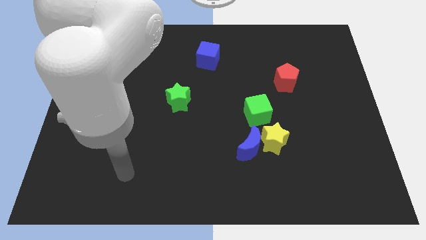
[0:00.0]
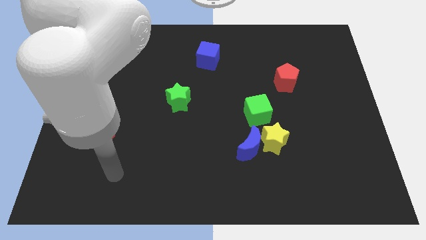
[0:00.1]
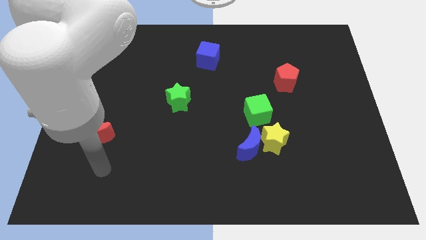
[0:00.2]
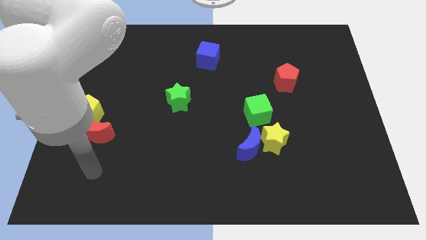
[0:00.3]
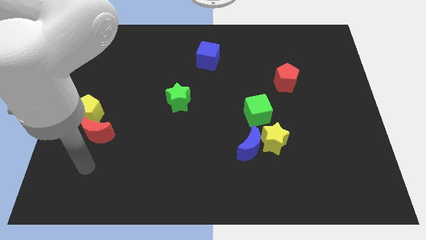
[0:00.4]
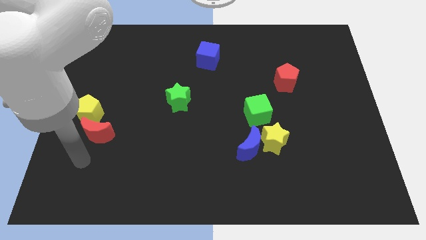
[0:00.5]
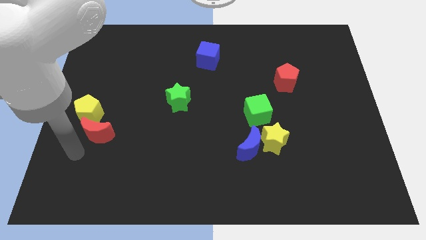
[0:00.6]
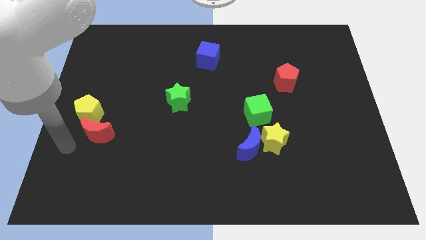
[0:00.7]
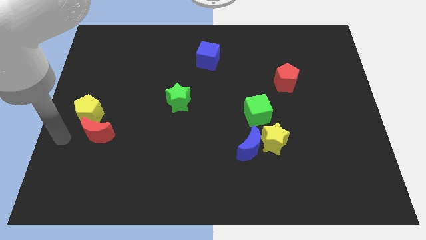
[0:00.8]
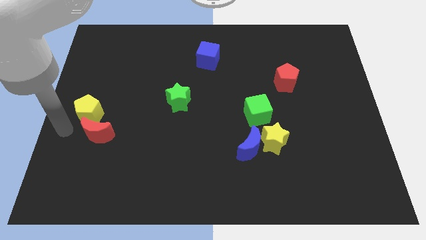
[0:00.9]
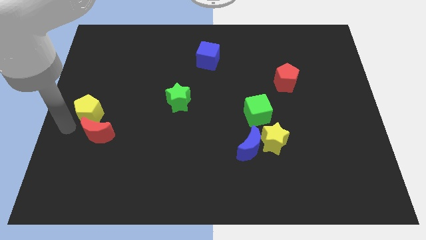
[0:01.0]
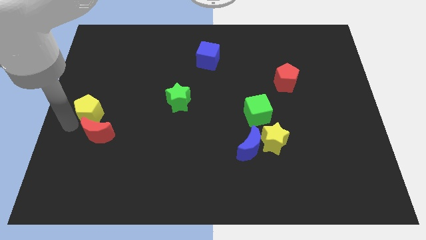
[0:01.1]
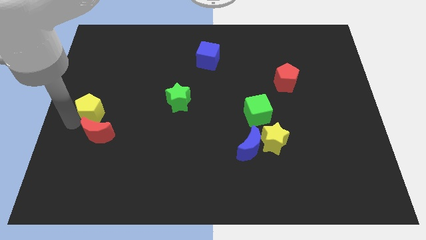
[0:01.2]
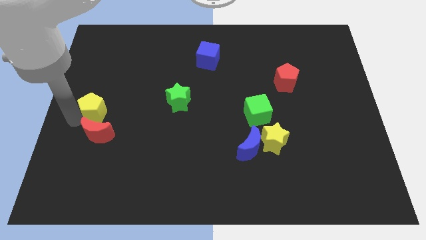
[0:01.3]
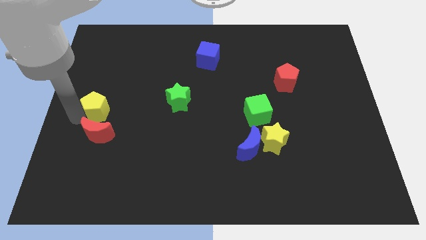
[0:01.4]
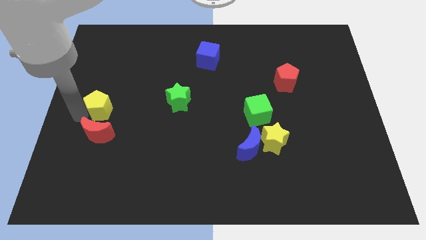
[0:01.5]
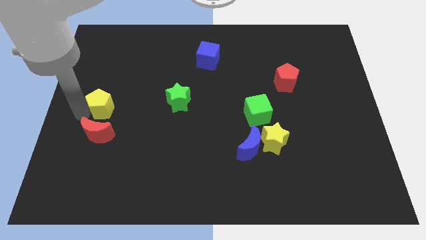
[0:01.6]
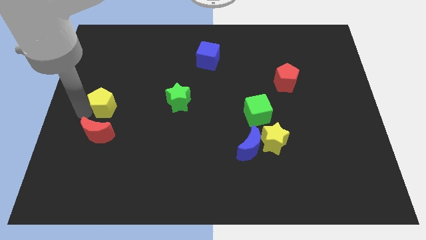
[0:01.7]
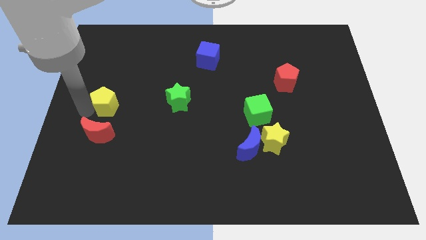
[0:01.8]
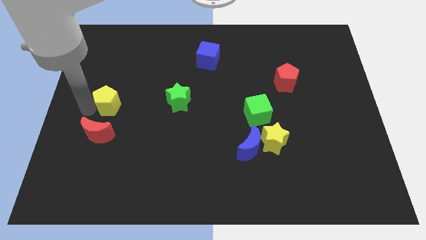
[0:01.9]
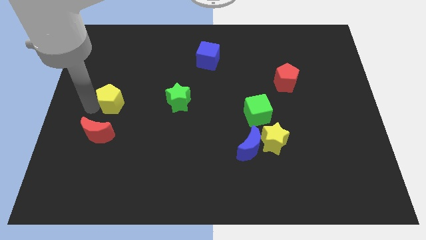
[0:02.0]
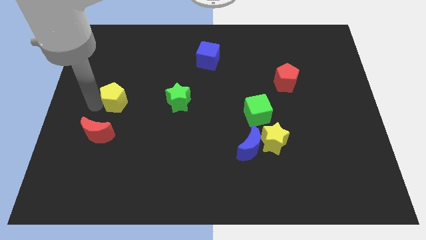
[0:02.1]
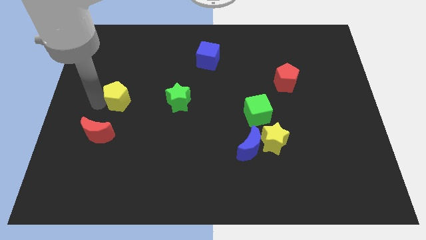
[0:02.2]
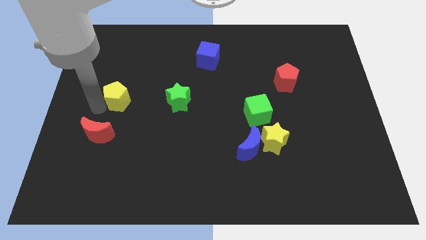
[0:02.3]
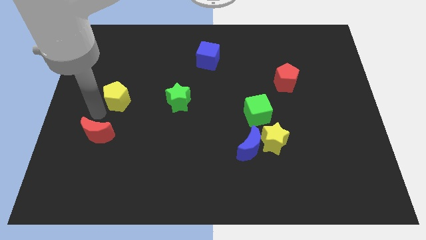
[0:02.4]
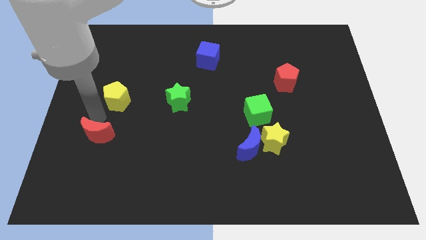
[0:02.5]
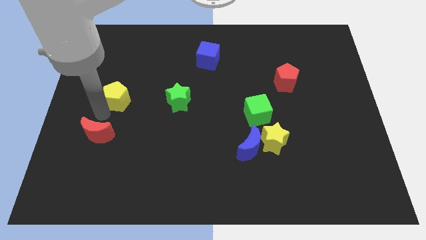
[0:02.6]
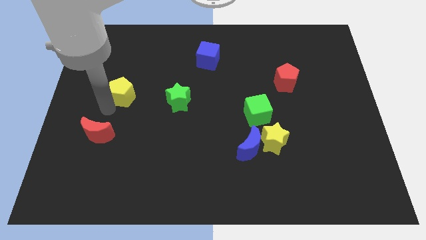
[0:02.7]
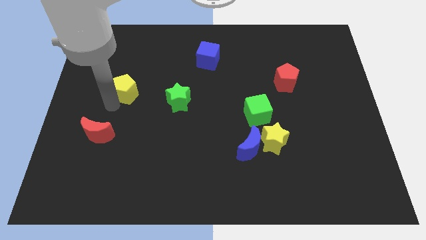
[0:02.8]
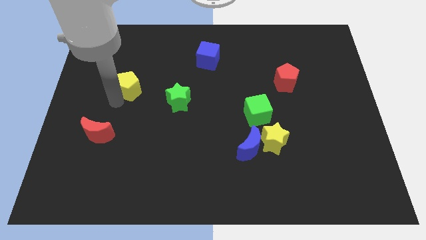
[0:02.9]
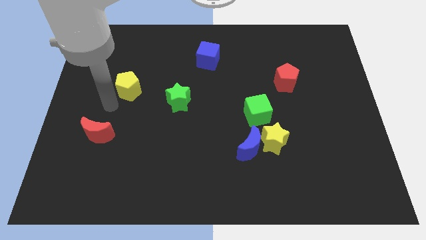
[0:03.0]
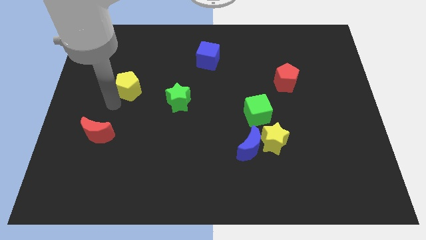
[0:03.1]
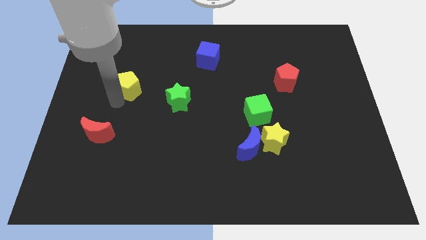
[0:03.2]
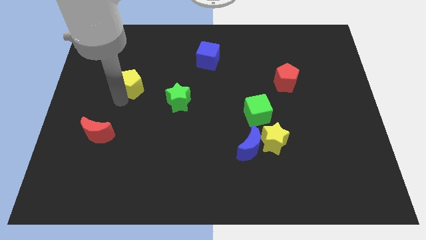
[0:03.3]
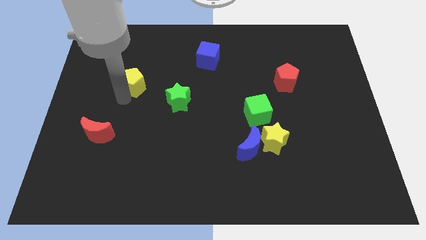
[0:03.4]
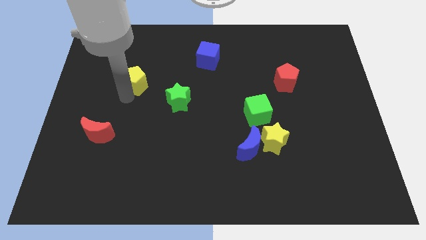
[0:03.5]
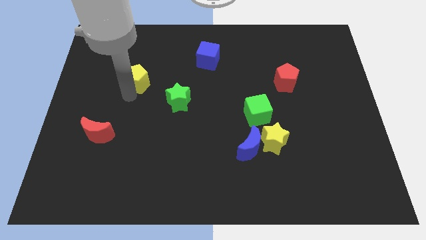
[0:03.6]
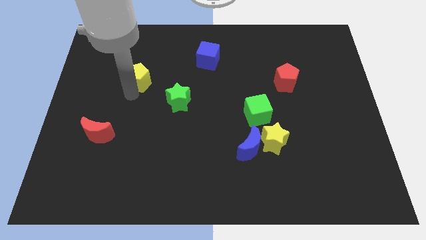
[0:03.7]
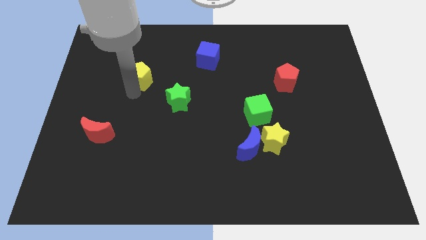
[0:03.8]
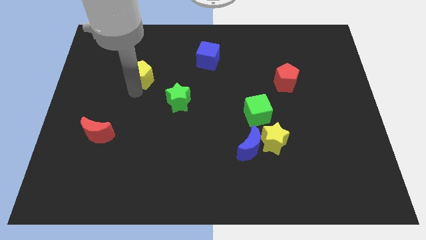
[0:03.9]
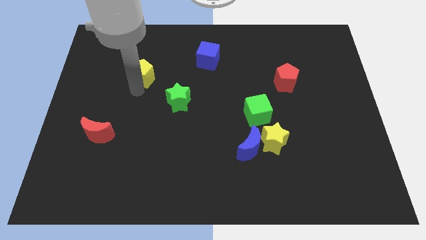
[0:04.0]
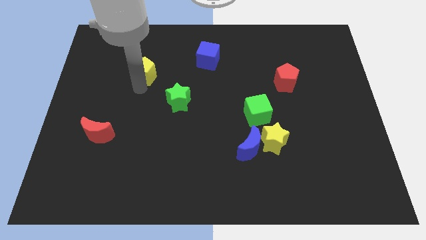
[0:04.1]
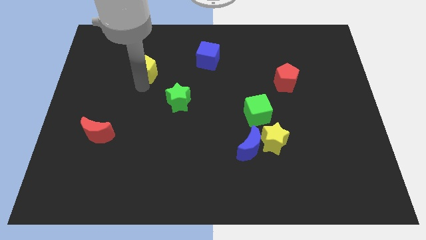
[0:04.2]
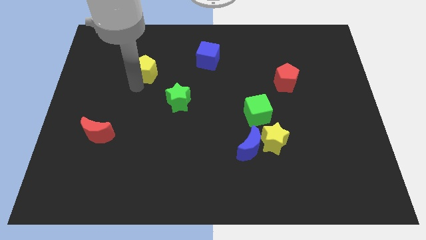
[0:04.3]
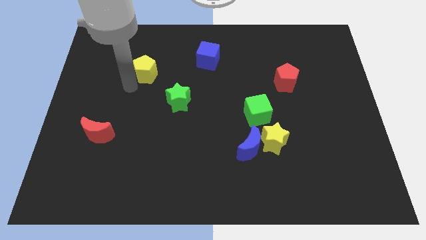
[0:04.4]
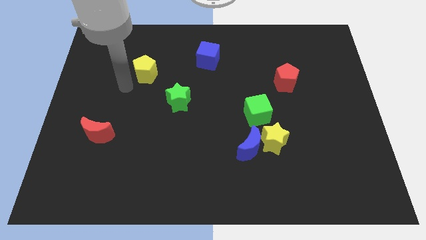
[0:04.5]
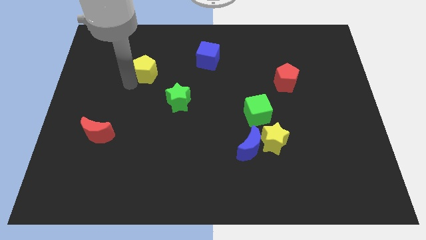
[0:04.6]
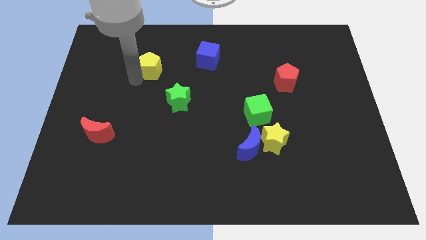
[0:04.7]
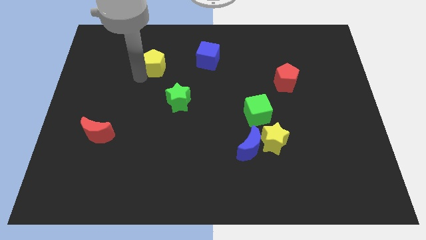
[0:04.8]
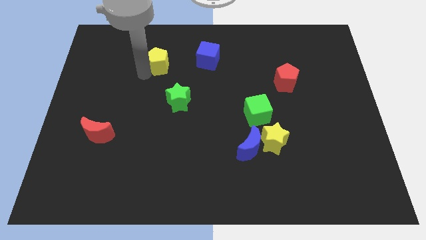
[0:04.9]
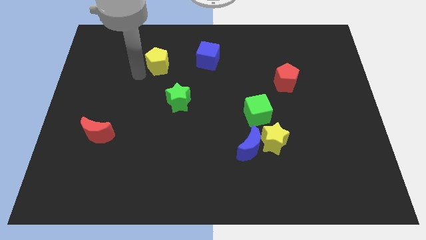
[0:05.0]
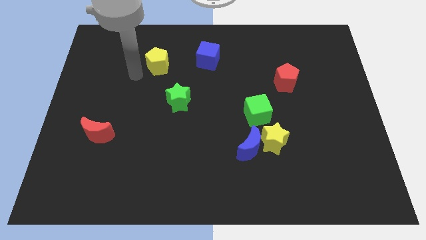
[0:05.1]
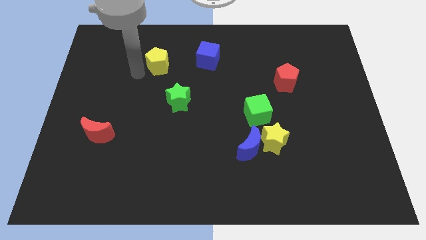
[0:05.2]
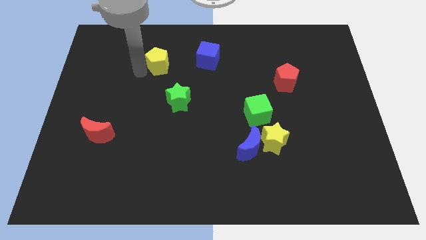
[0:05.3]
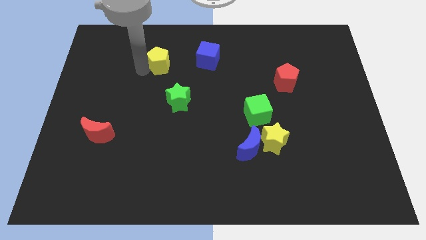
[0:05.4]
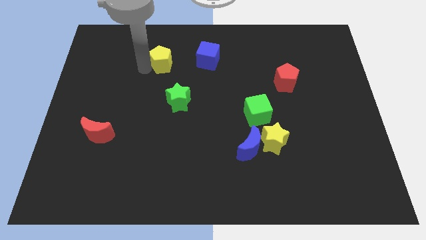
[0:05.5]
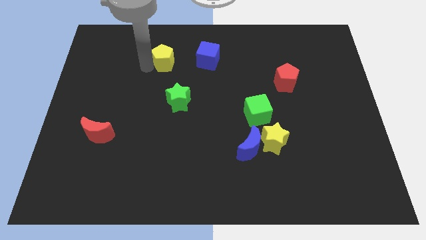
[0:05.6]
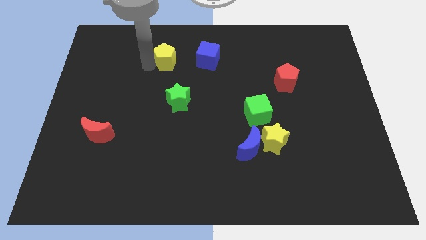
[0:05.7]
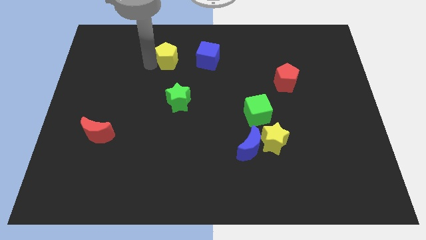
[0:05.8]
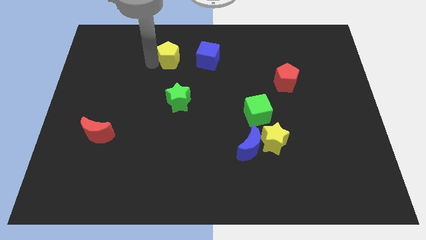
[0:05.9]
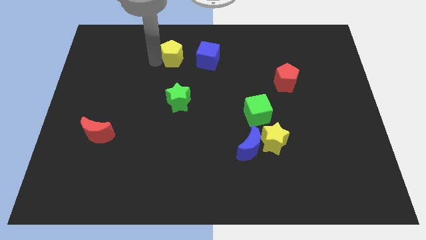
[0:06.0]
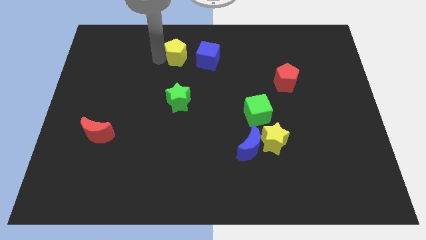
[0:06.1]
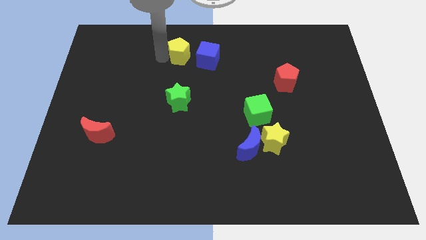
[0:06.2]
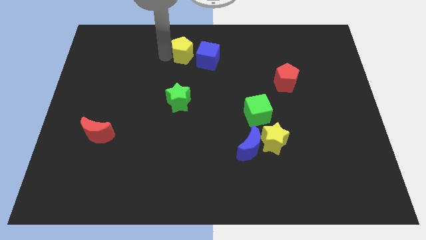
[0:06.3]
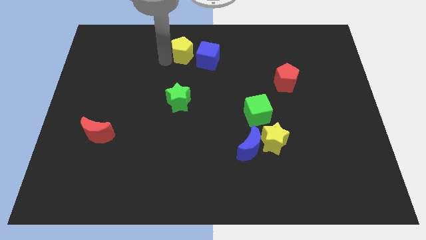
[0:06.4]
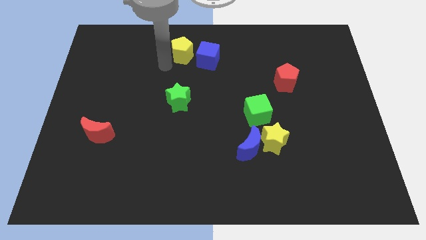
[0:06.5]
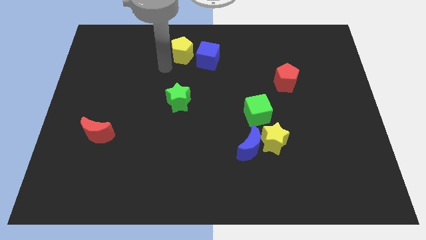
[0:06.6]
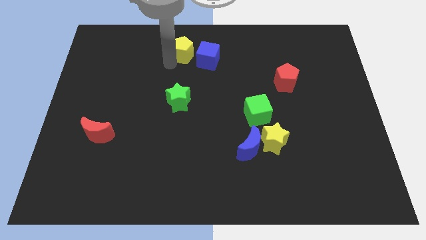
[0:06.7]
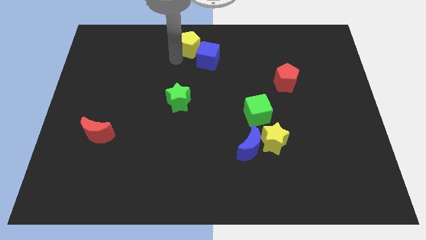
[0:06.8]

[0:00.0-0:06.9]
push the yellow pentagon to the top side
